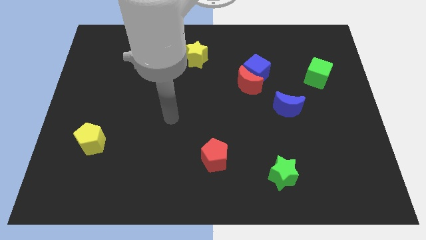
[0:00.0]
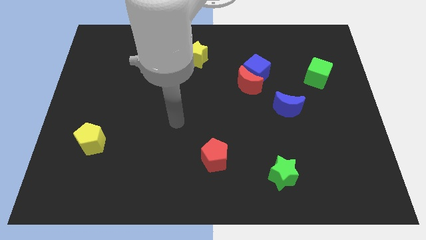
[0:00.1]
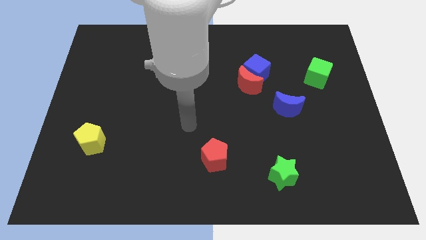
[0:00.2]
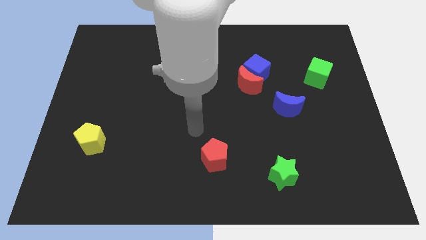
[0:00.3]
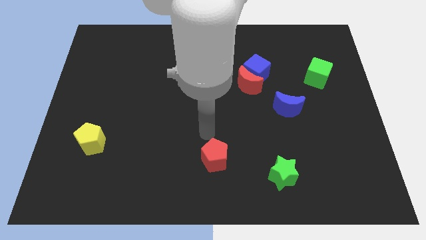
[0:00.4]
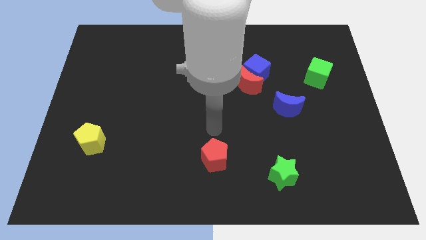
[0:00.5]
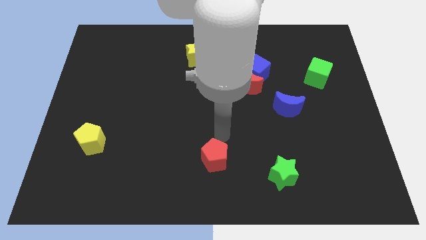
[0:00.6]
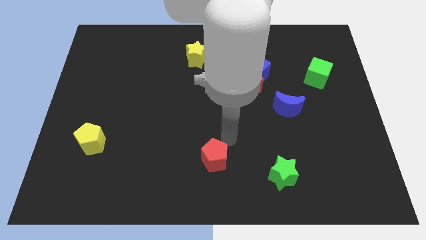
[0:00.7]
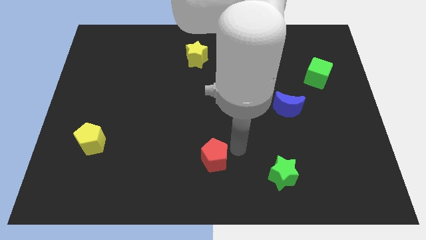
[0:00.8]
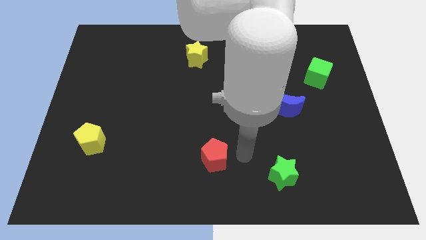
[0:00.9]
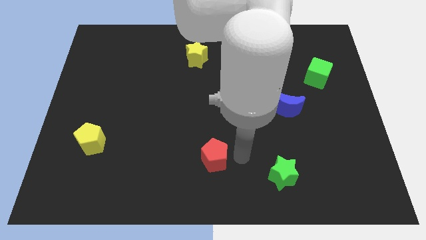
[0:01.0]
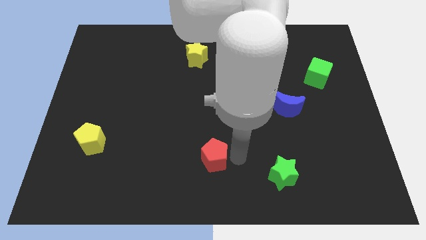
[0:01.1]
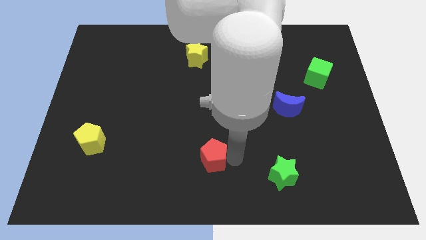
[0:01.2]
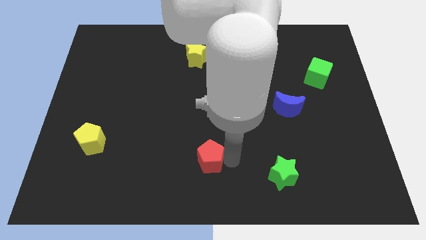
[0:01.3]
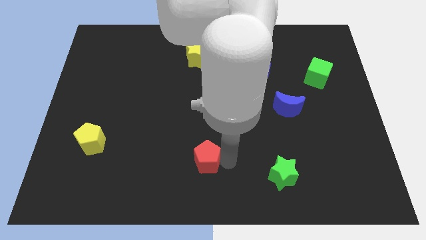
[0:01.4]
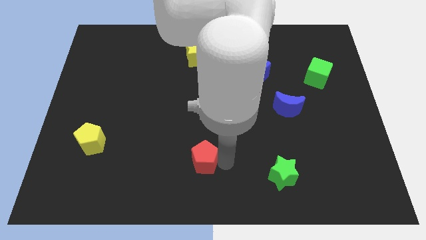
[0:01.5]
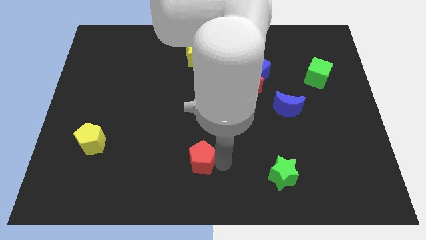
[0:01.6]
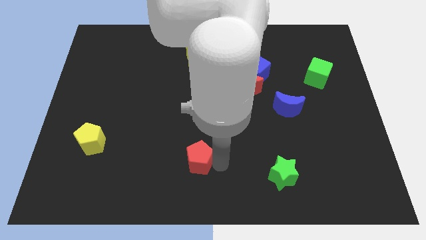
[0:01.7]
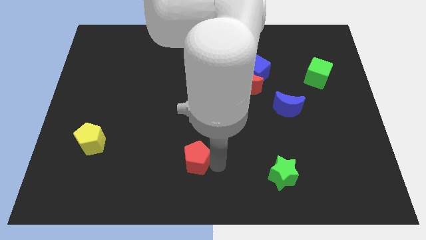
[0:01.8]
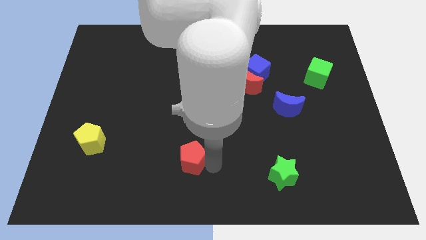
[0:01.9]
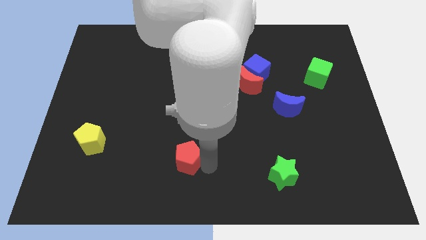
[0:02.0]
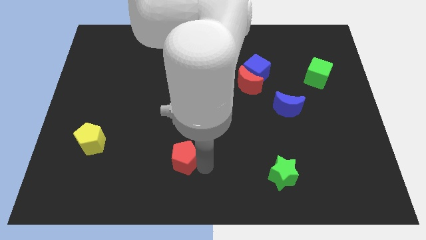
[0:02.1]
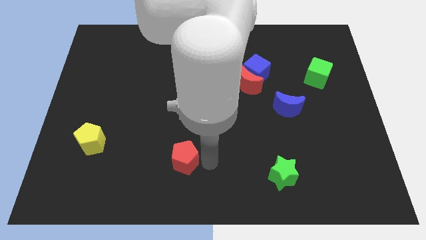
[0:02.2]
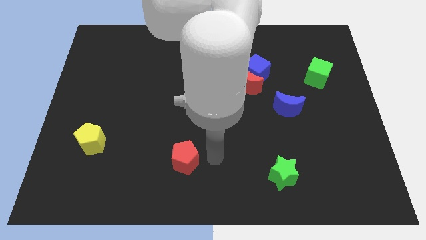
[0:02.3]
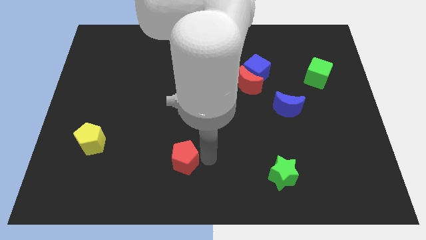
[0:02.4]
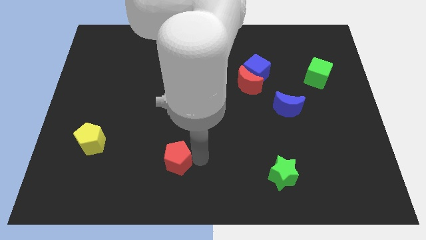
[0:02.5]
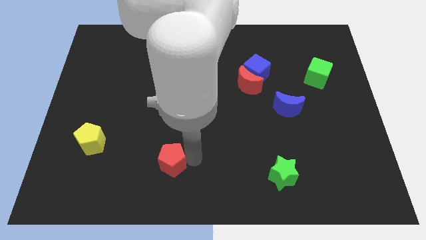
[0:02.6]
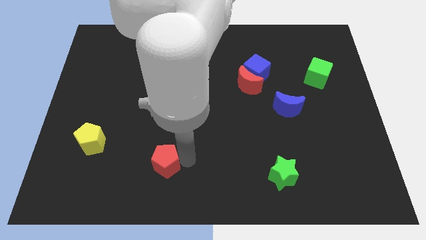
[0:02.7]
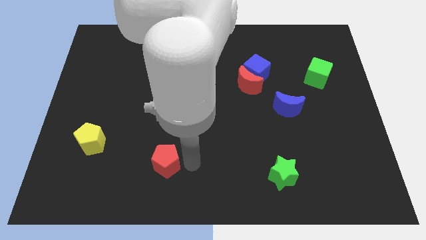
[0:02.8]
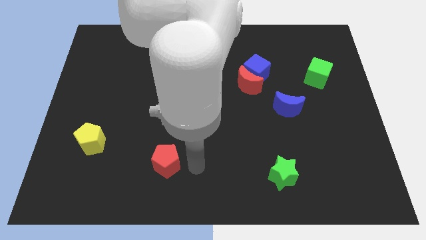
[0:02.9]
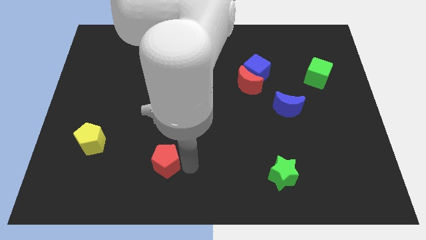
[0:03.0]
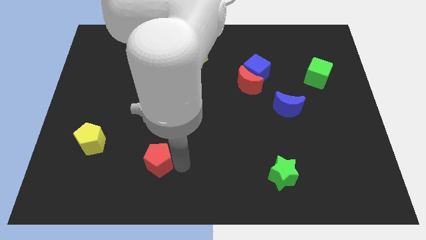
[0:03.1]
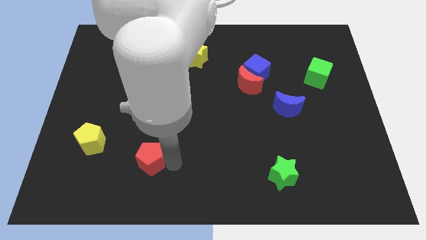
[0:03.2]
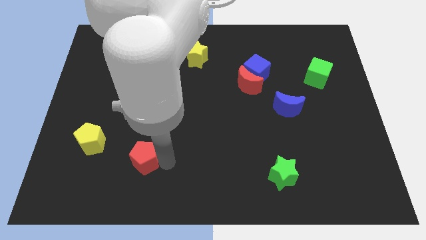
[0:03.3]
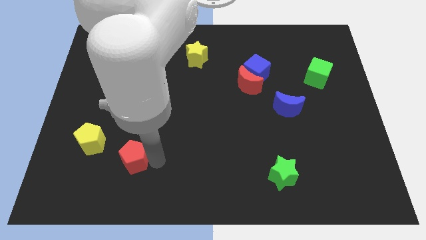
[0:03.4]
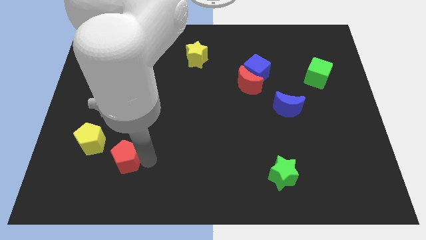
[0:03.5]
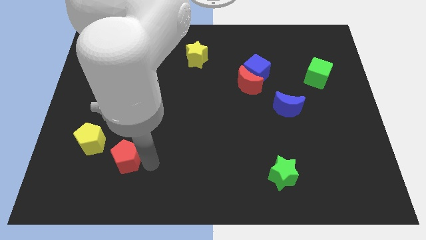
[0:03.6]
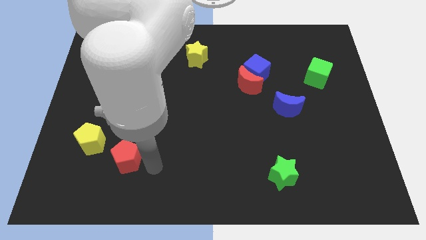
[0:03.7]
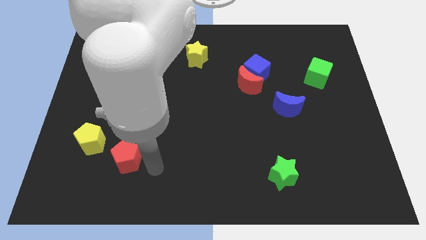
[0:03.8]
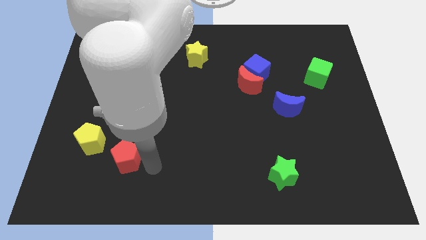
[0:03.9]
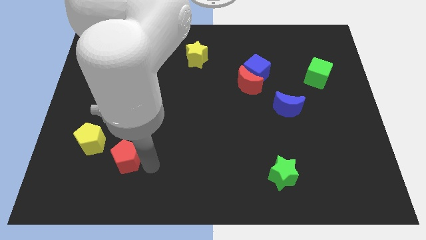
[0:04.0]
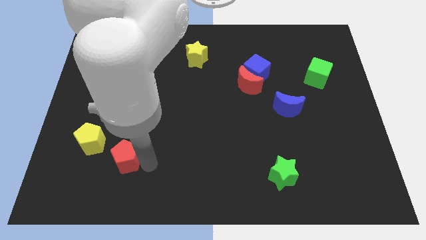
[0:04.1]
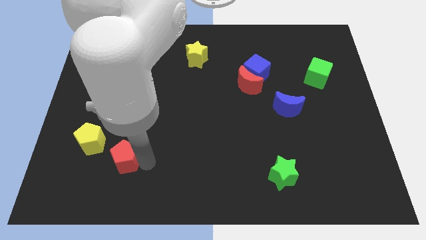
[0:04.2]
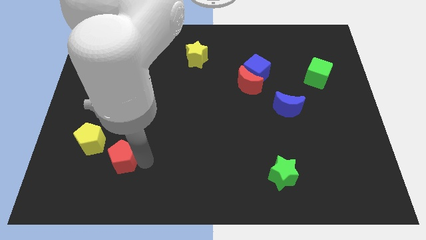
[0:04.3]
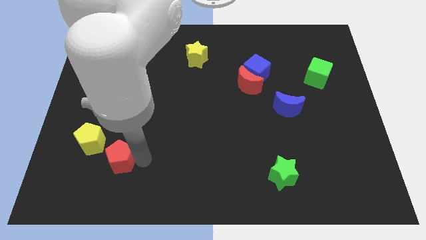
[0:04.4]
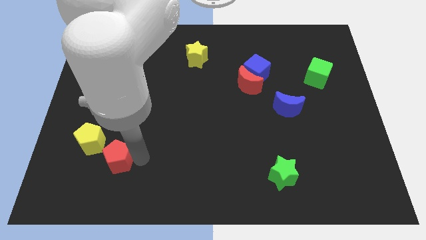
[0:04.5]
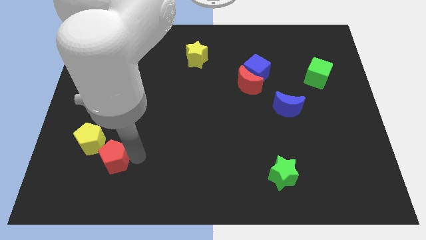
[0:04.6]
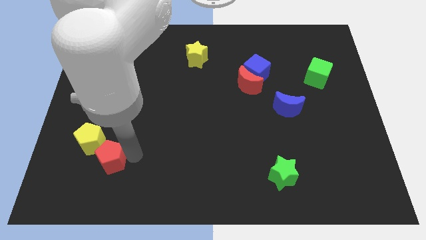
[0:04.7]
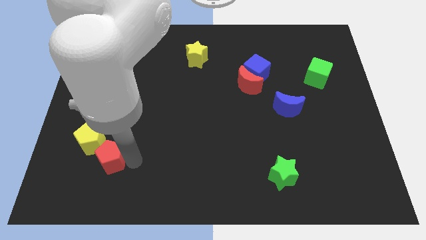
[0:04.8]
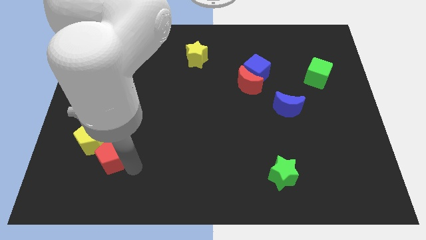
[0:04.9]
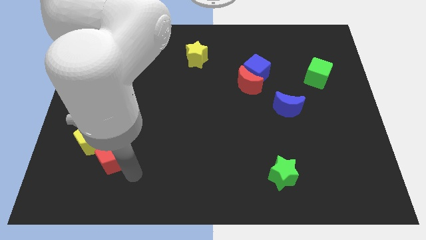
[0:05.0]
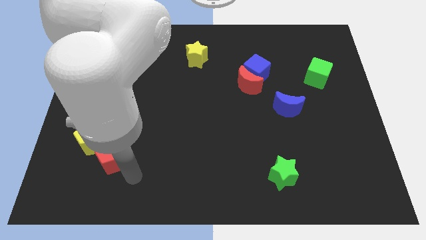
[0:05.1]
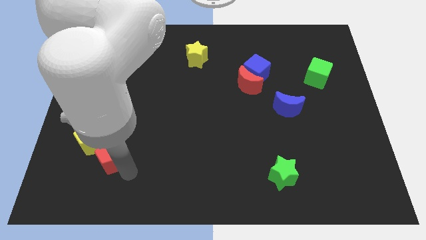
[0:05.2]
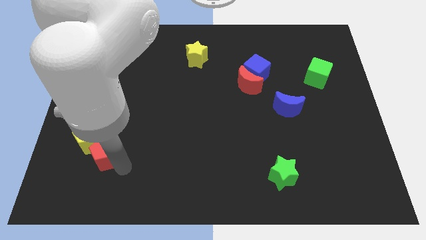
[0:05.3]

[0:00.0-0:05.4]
move the red pentagon towards the yellow pentagon
